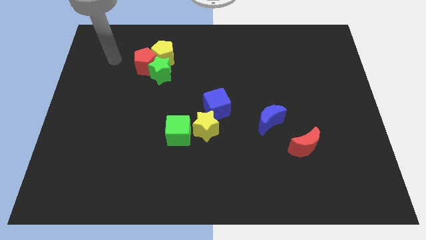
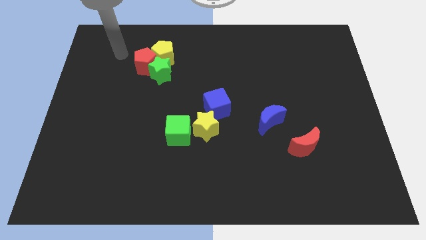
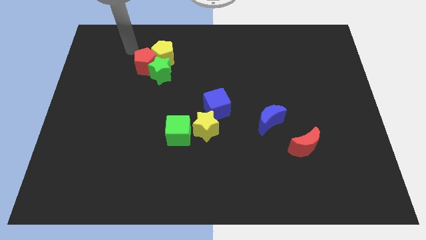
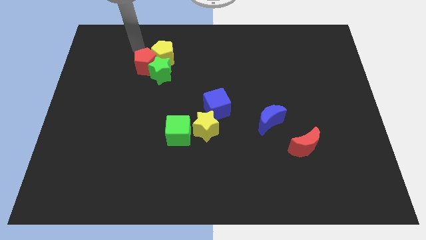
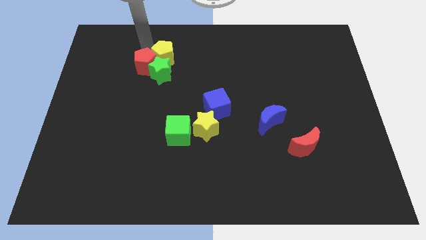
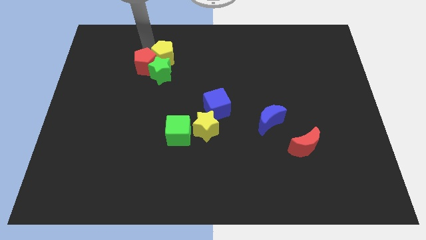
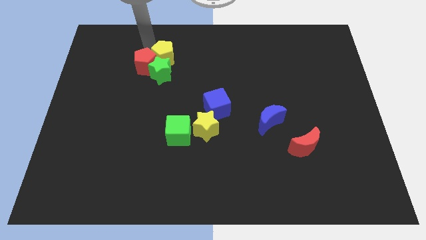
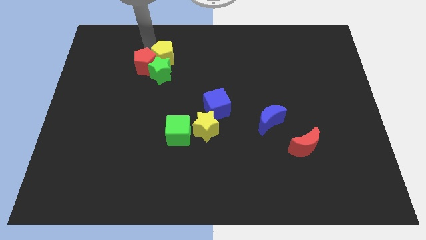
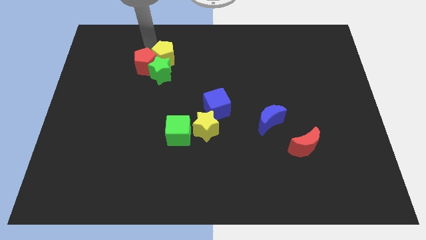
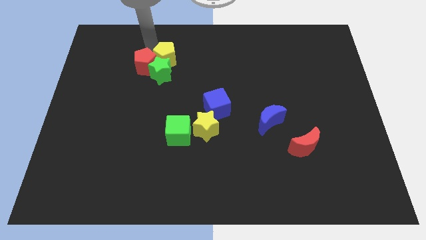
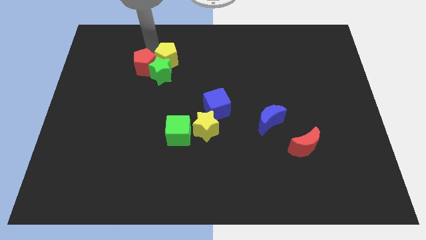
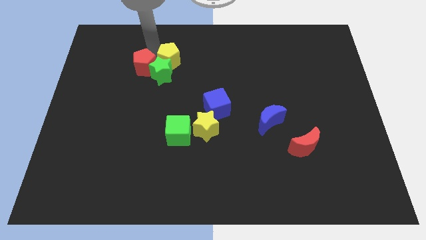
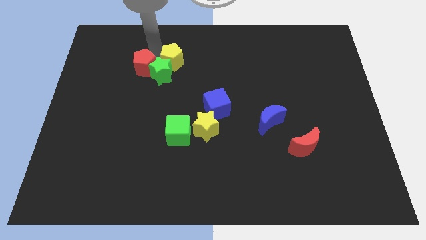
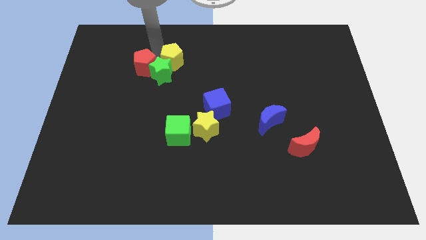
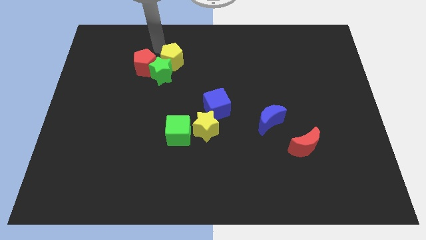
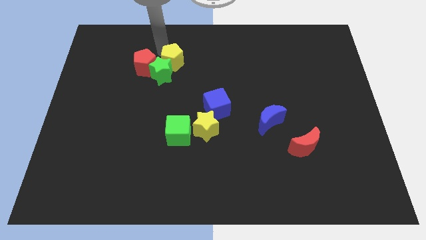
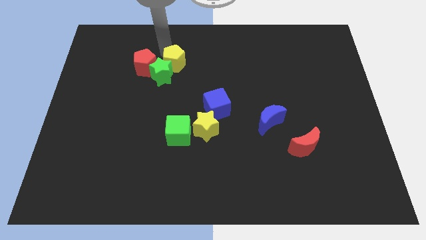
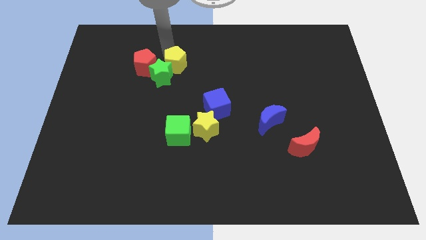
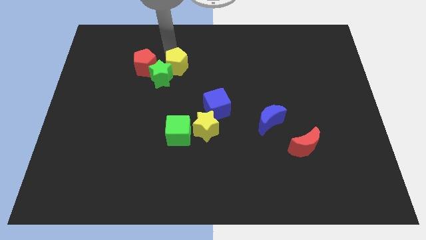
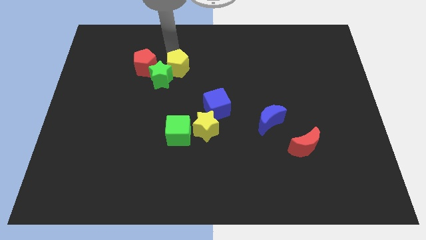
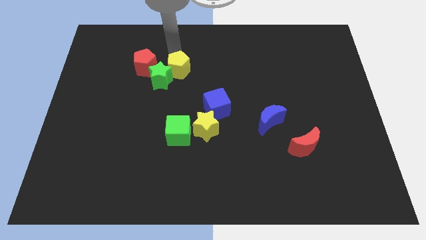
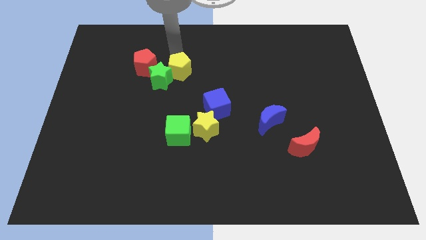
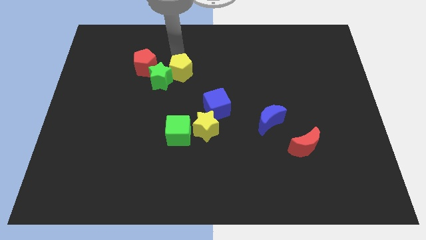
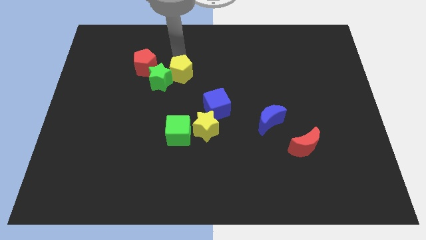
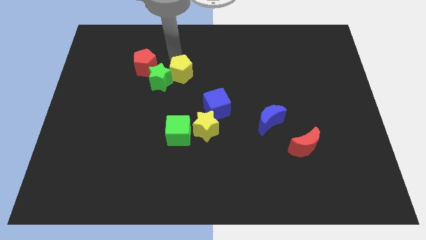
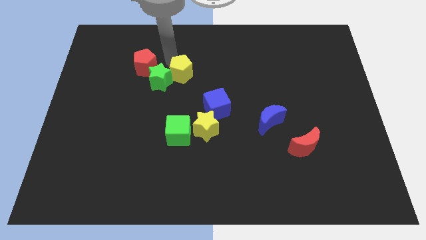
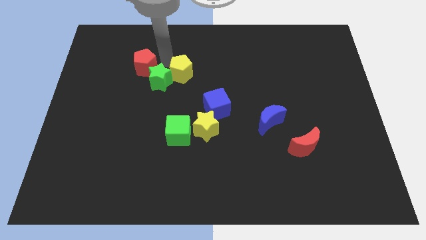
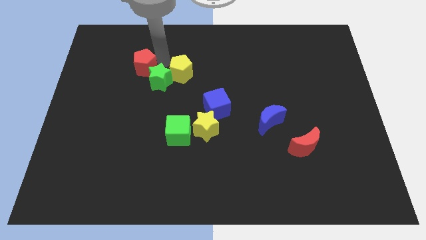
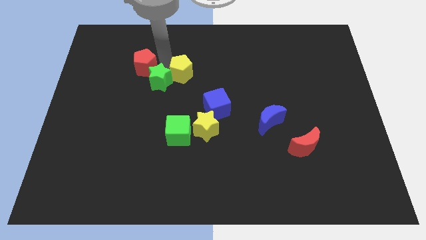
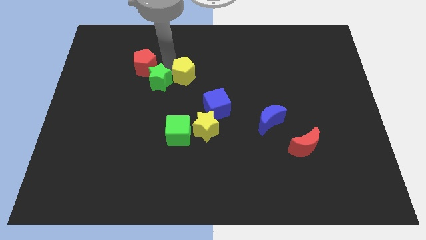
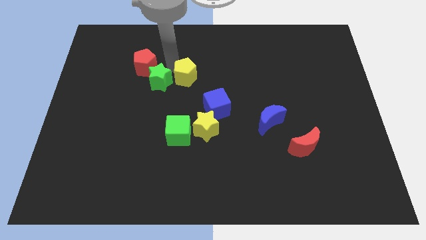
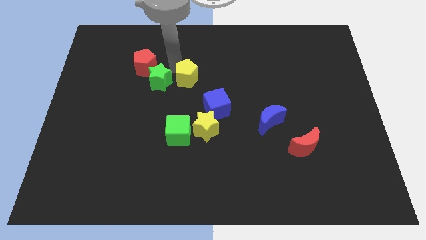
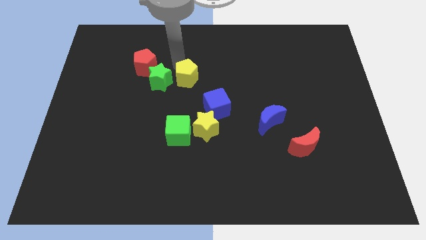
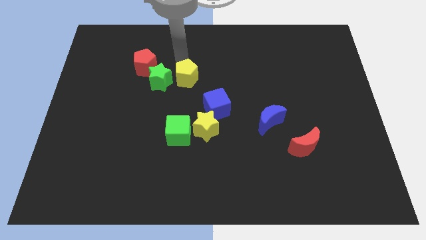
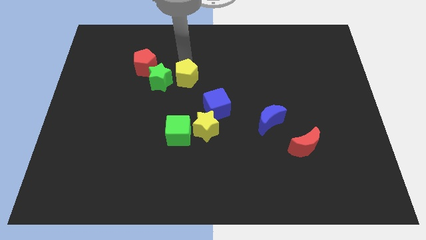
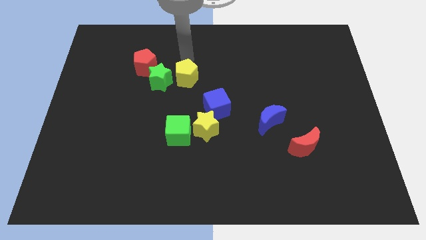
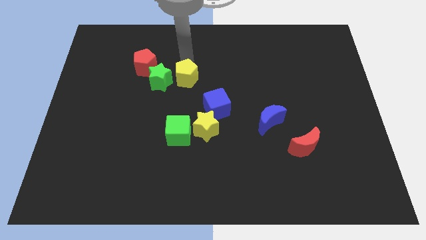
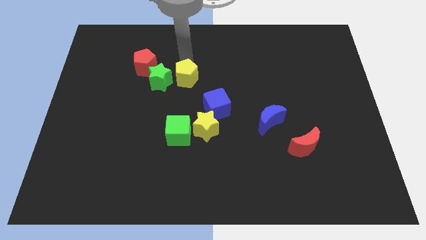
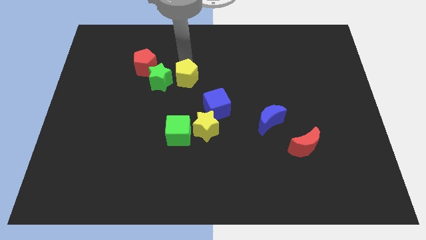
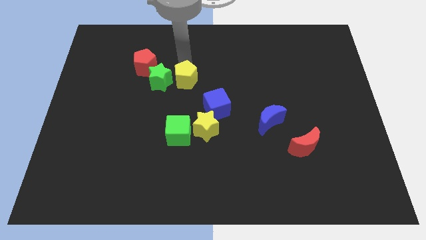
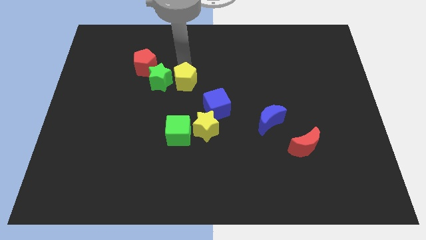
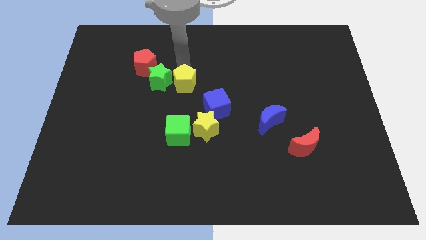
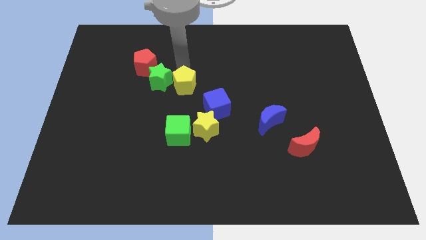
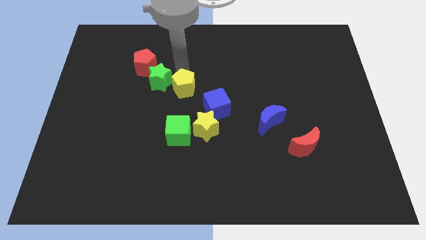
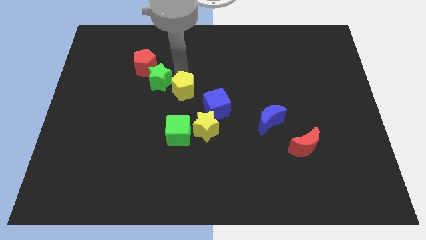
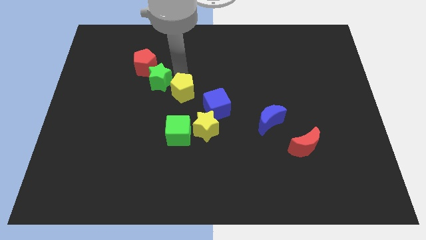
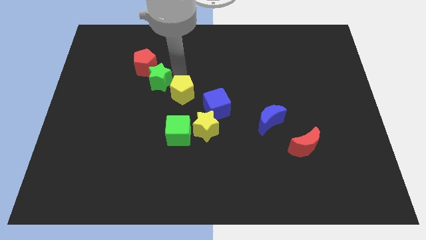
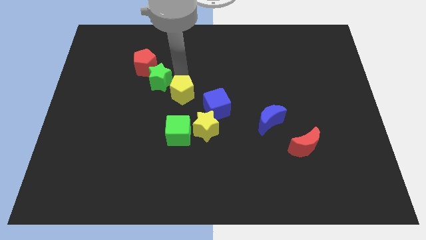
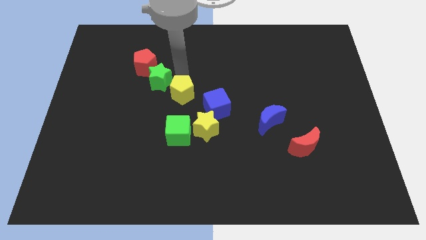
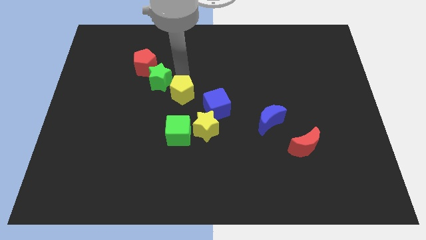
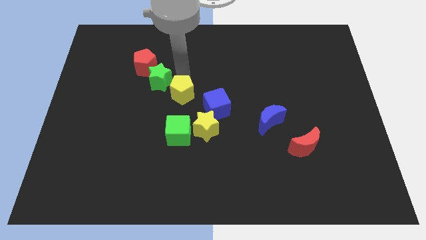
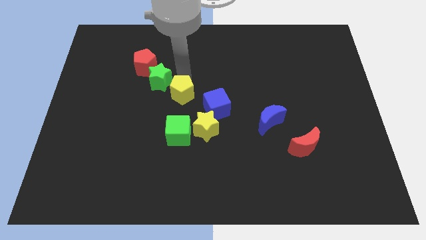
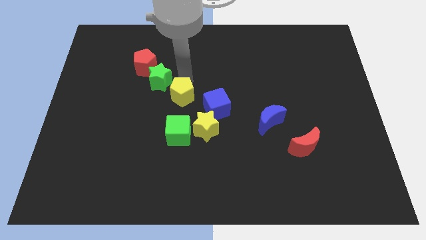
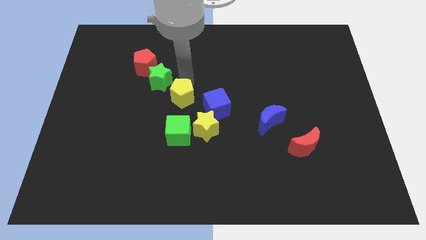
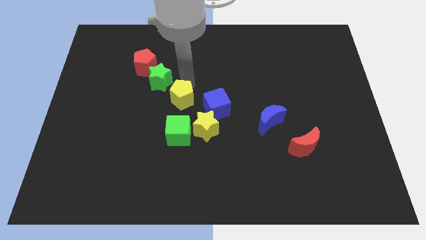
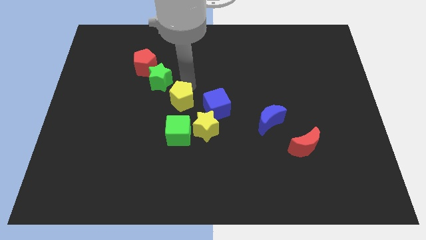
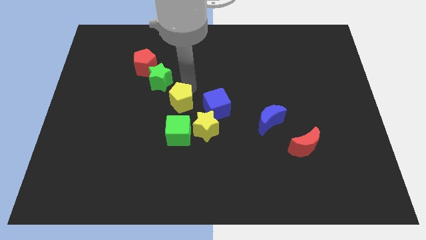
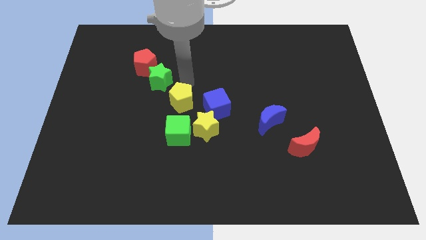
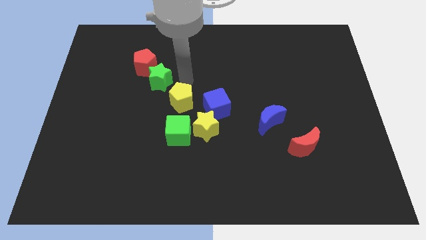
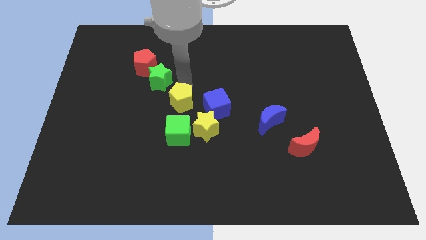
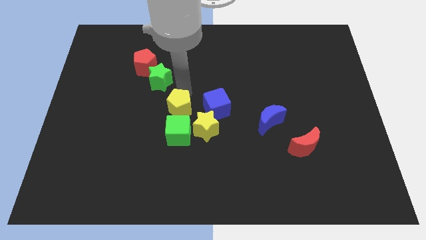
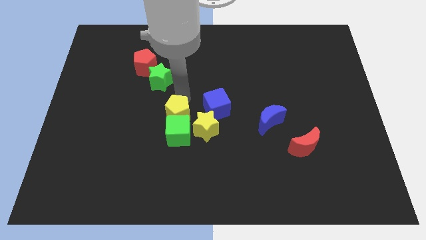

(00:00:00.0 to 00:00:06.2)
put the yellow pentagon next to the green cube

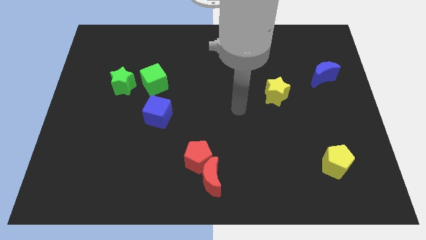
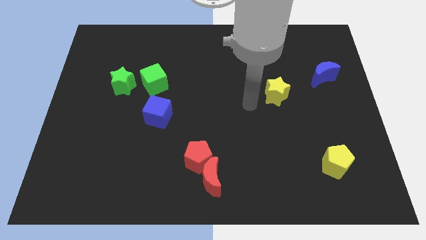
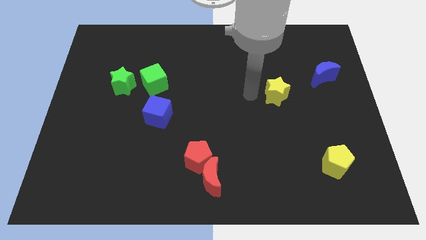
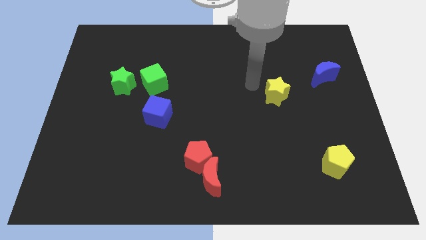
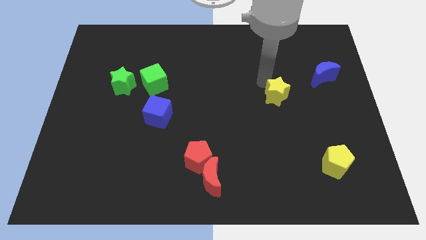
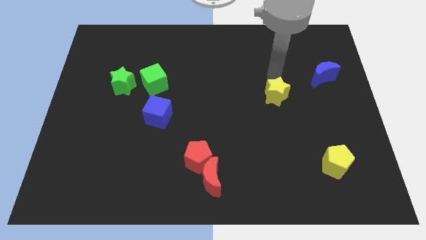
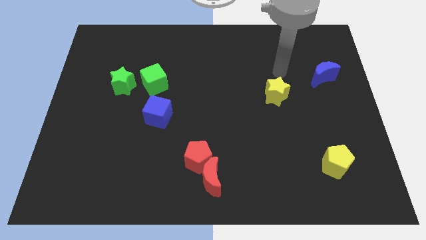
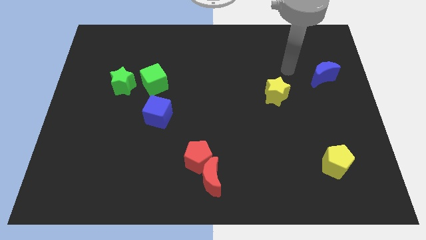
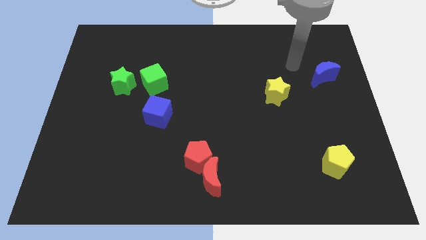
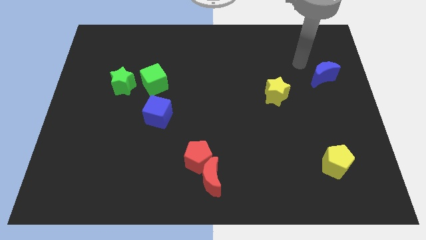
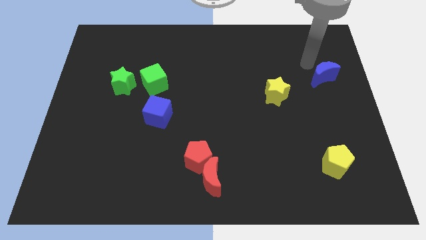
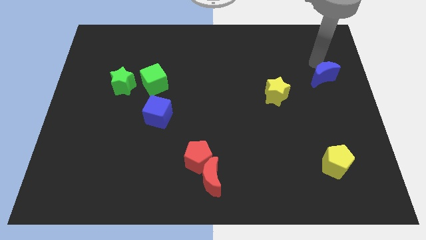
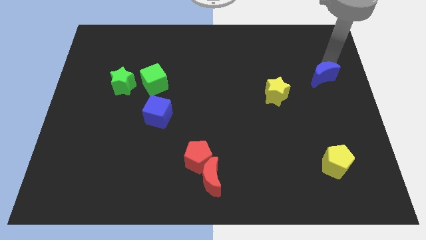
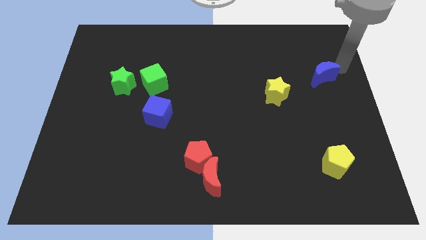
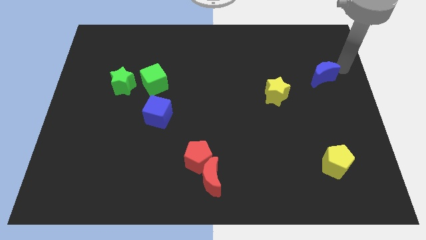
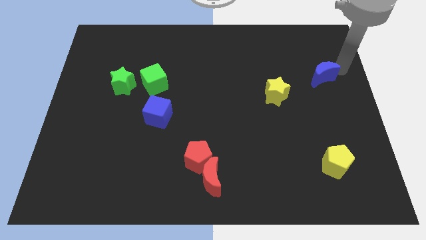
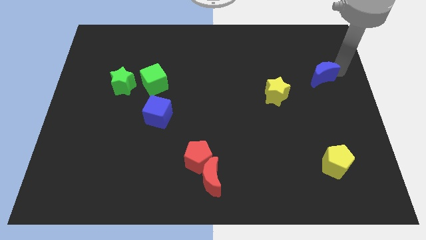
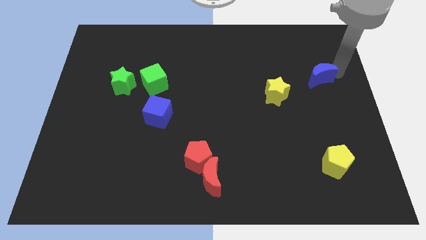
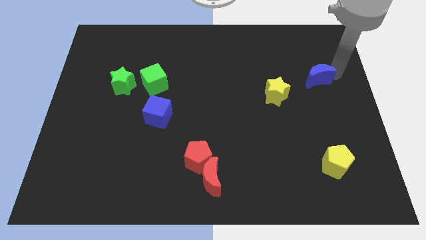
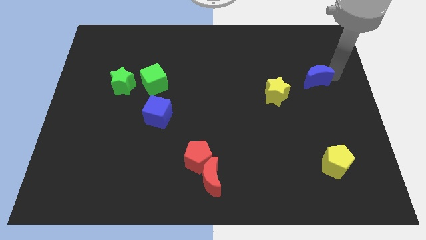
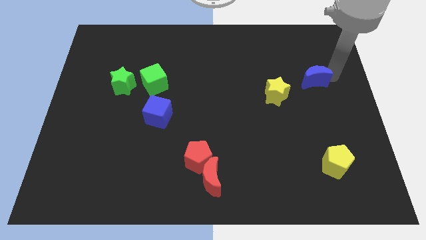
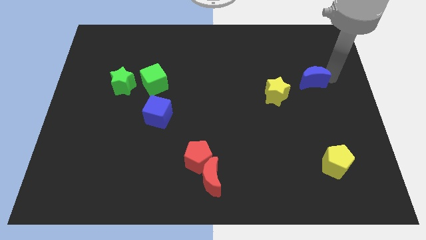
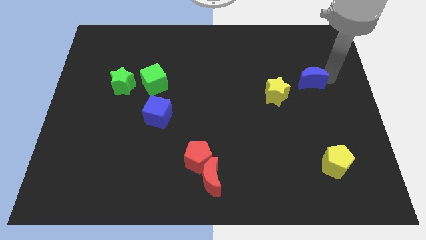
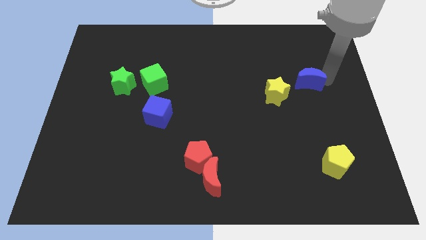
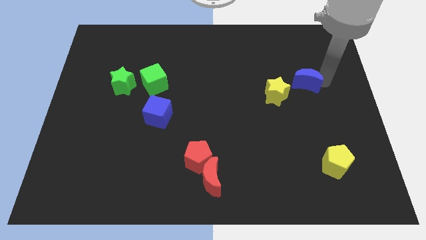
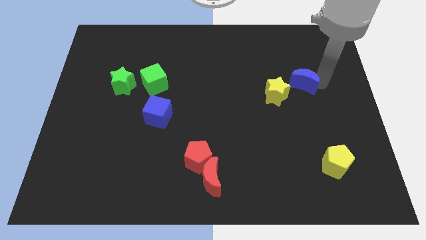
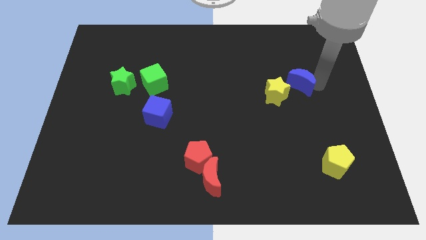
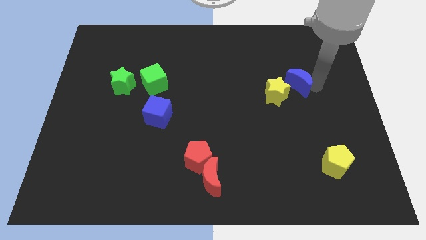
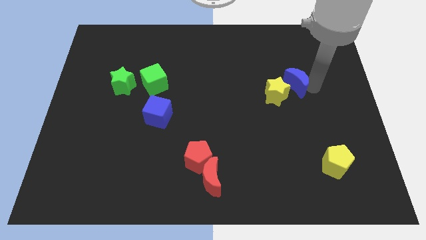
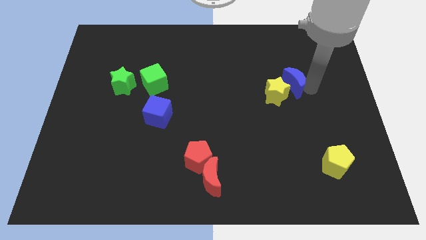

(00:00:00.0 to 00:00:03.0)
slide the blue moon close to the yellow star
